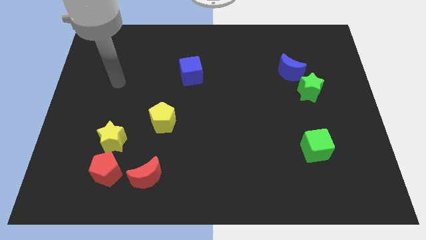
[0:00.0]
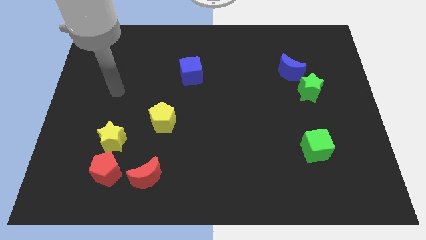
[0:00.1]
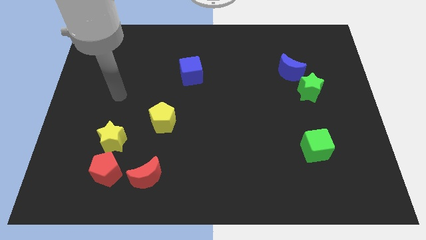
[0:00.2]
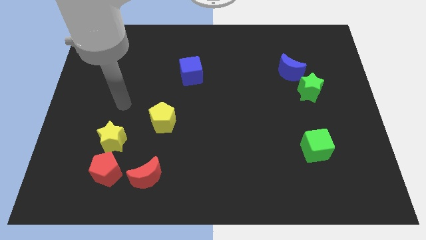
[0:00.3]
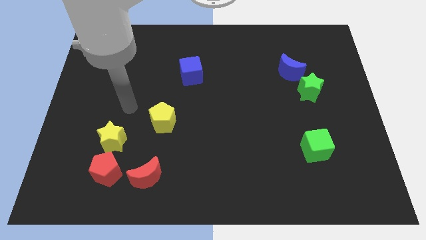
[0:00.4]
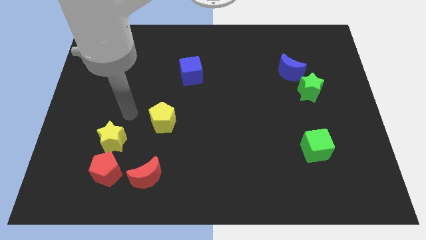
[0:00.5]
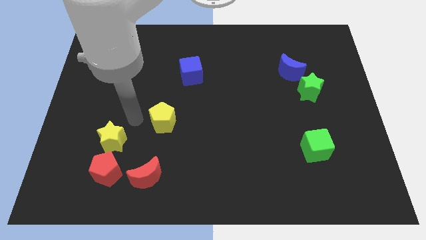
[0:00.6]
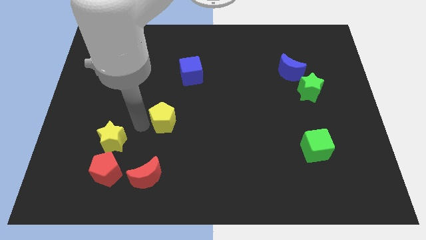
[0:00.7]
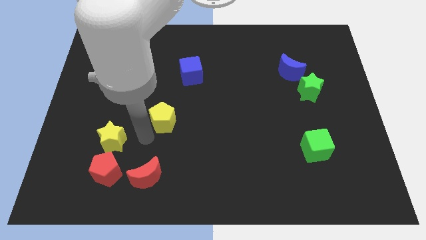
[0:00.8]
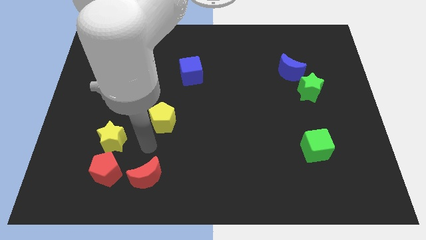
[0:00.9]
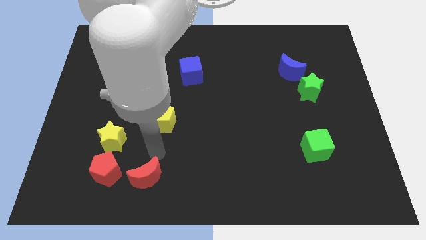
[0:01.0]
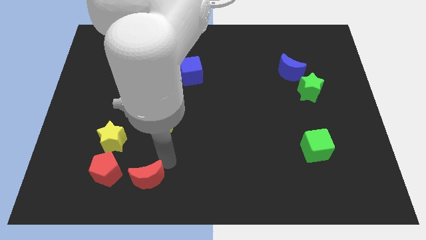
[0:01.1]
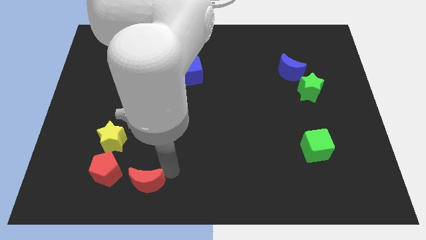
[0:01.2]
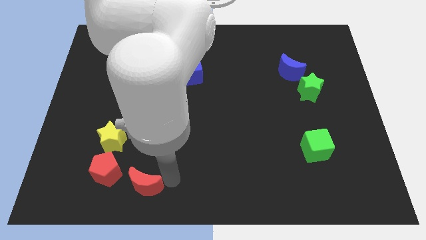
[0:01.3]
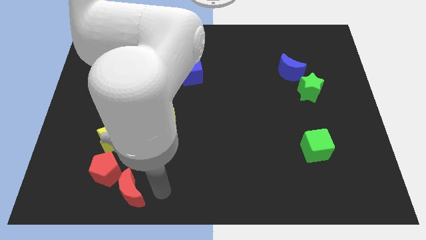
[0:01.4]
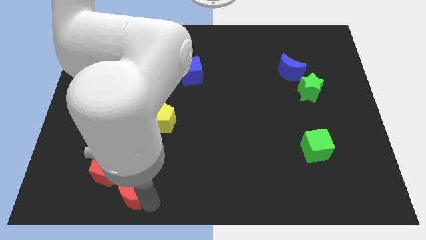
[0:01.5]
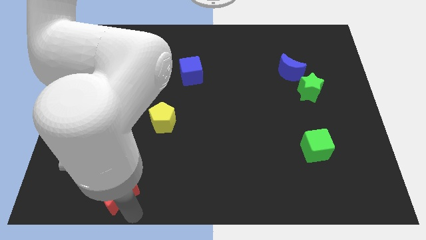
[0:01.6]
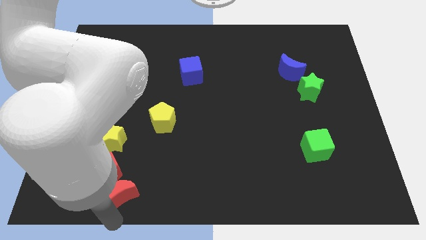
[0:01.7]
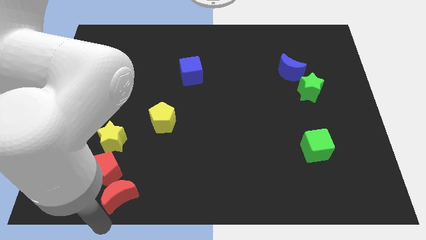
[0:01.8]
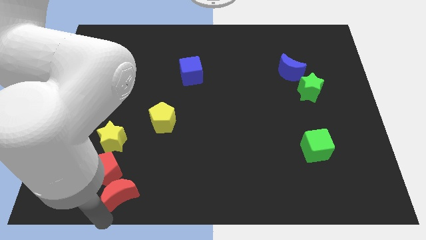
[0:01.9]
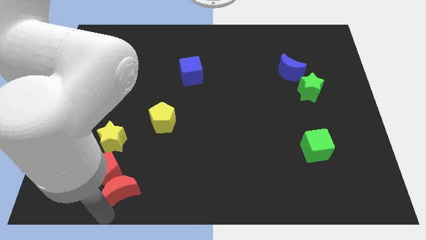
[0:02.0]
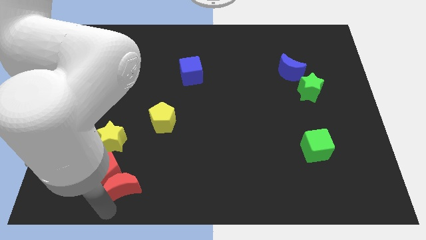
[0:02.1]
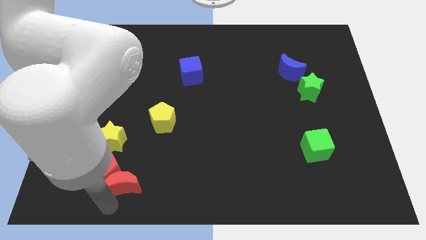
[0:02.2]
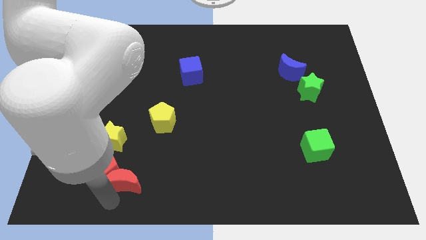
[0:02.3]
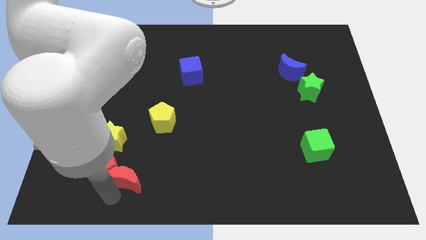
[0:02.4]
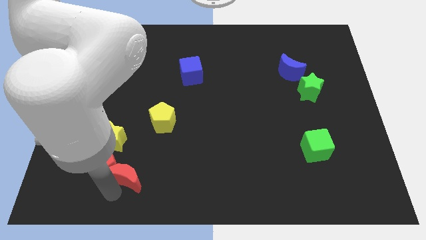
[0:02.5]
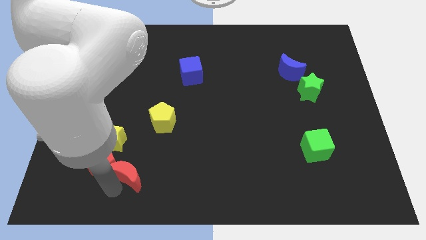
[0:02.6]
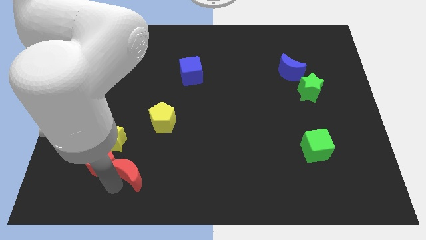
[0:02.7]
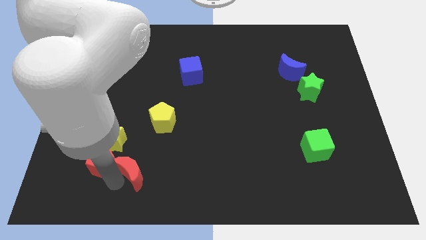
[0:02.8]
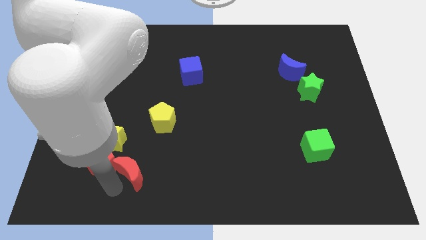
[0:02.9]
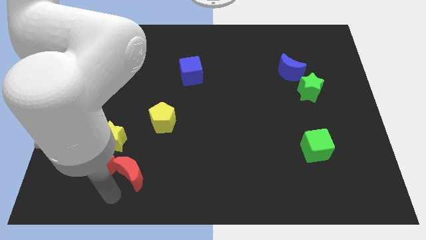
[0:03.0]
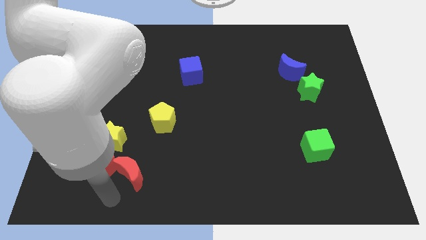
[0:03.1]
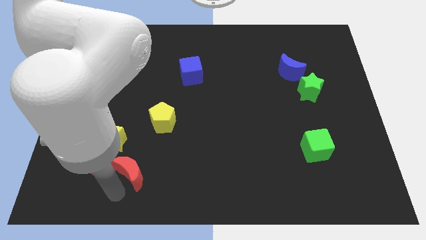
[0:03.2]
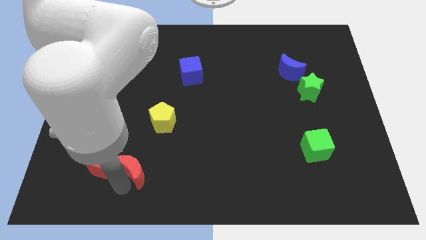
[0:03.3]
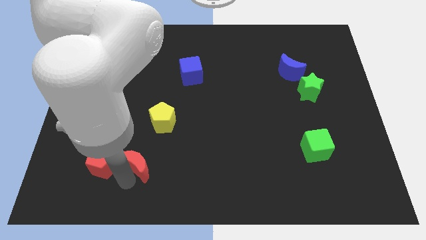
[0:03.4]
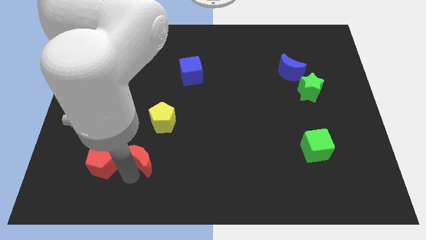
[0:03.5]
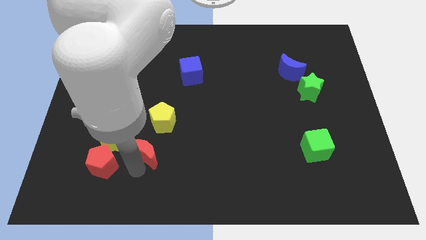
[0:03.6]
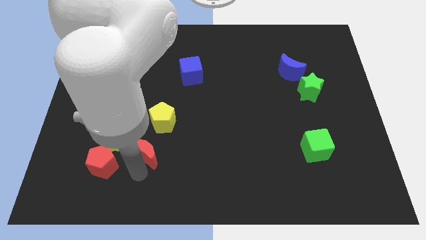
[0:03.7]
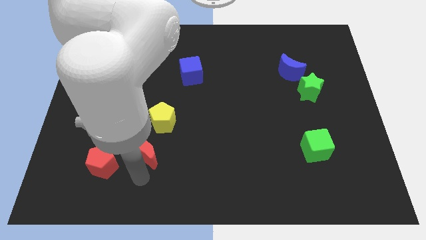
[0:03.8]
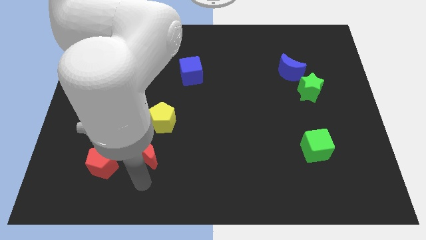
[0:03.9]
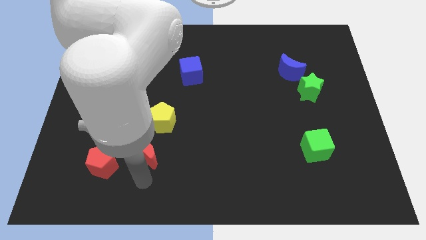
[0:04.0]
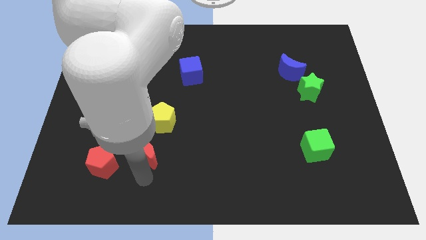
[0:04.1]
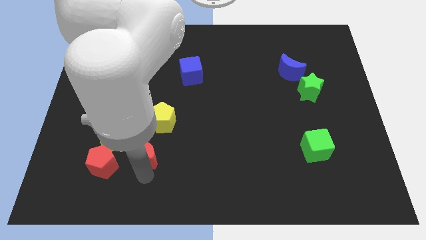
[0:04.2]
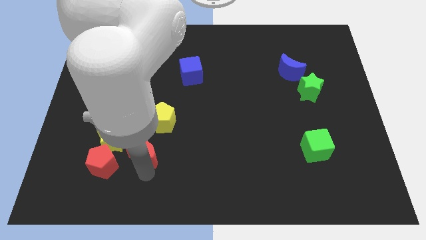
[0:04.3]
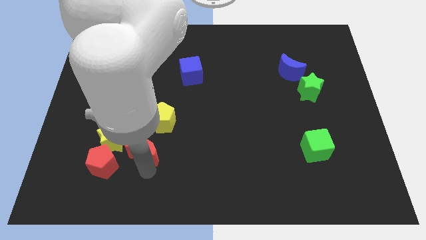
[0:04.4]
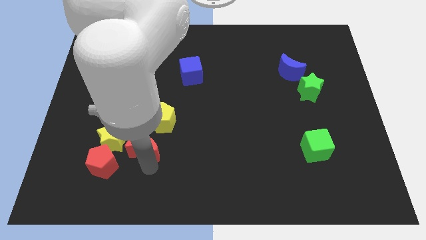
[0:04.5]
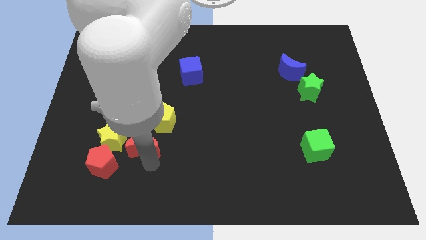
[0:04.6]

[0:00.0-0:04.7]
slightly push the red moon up

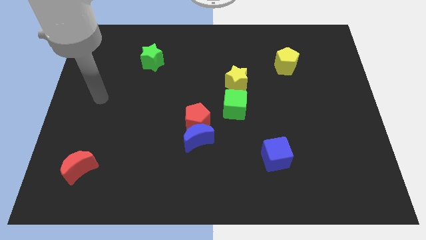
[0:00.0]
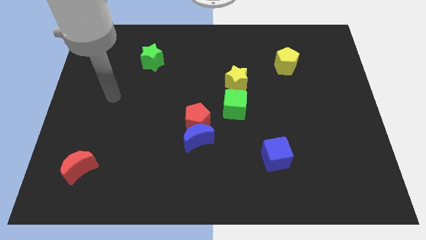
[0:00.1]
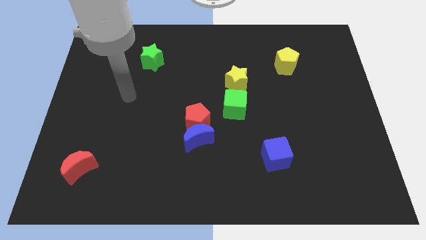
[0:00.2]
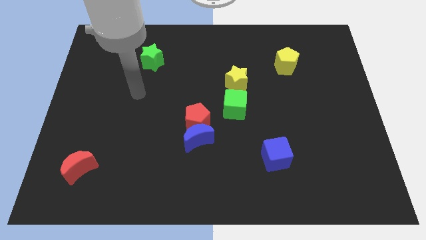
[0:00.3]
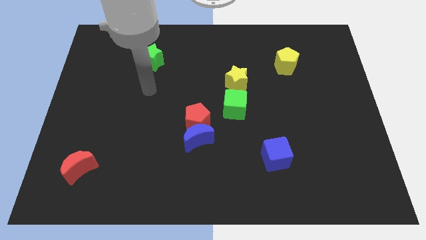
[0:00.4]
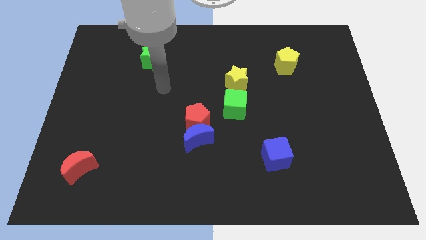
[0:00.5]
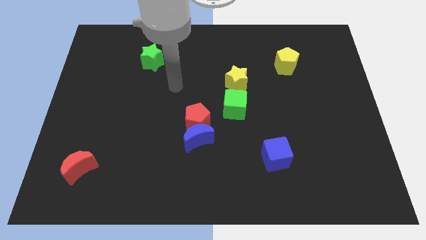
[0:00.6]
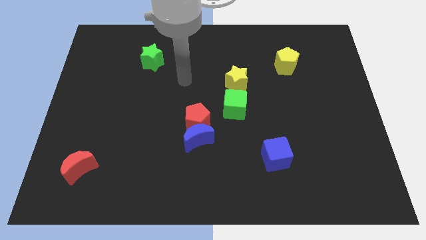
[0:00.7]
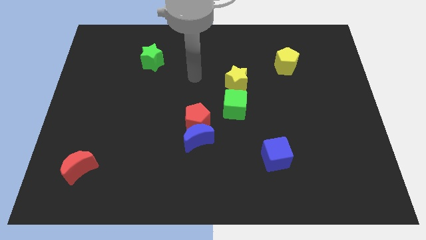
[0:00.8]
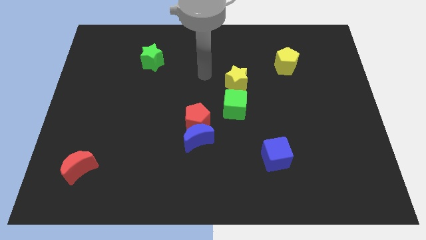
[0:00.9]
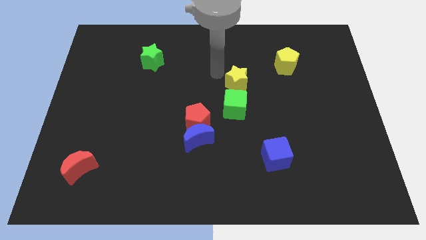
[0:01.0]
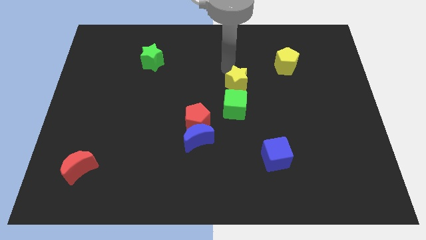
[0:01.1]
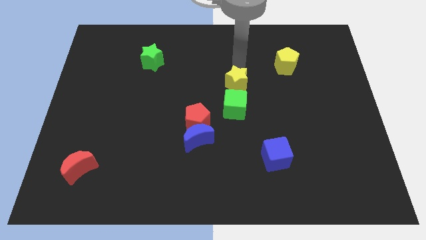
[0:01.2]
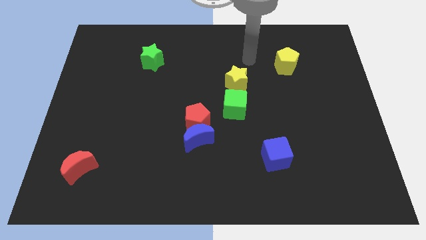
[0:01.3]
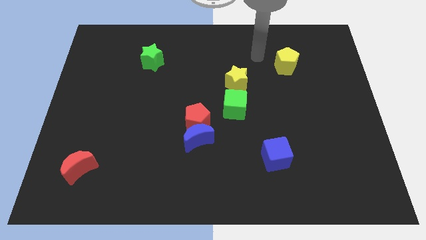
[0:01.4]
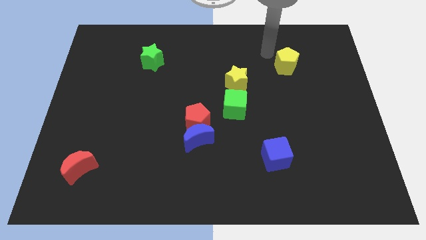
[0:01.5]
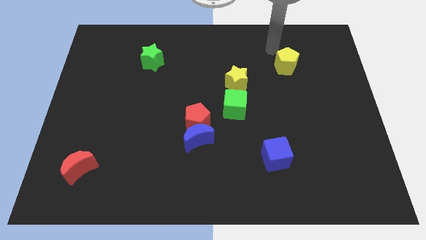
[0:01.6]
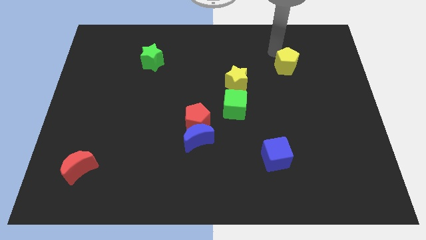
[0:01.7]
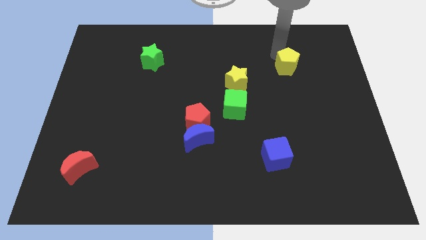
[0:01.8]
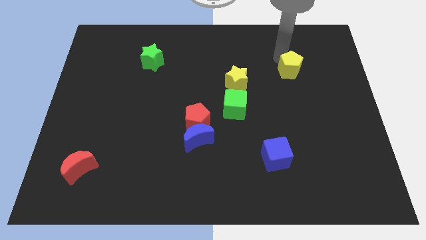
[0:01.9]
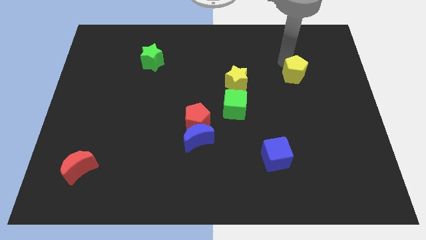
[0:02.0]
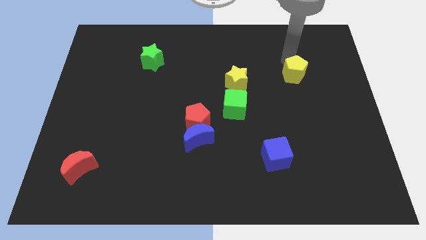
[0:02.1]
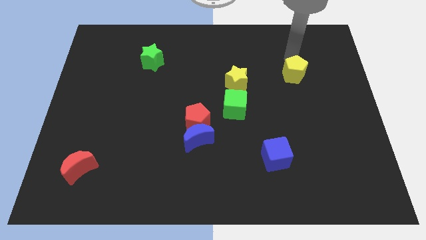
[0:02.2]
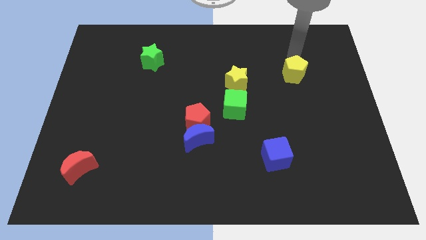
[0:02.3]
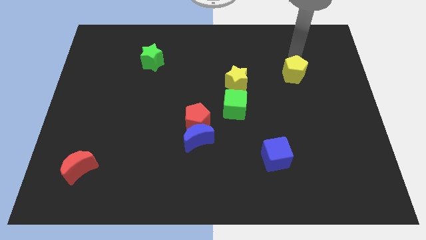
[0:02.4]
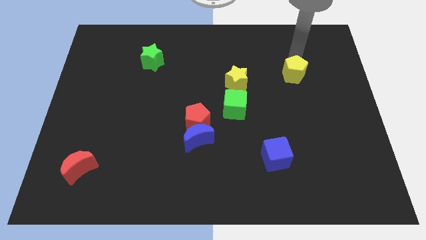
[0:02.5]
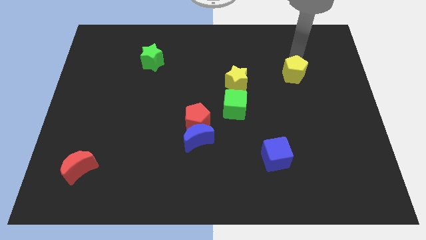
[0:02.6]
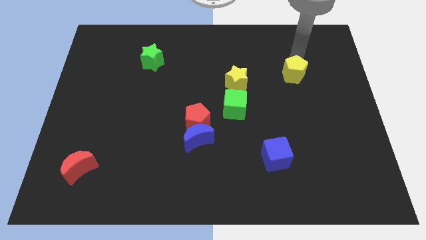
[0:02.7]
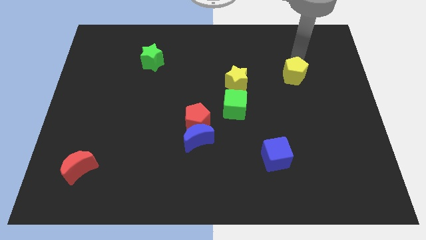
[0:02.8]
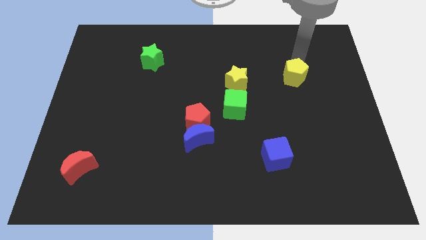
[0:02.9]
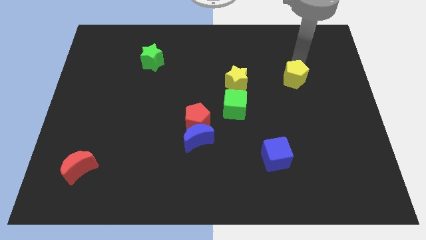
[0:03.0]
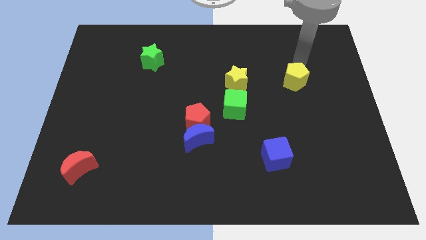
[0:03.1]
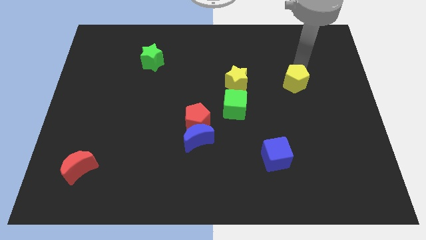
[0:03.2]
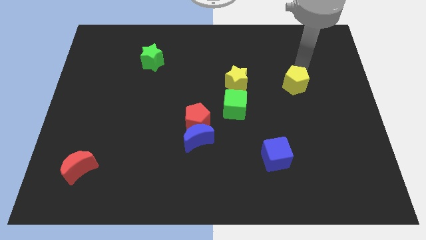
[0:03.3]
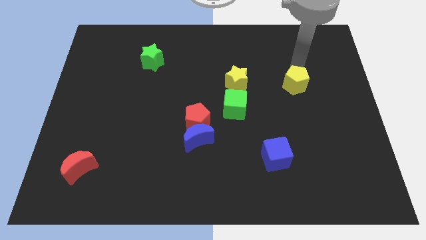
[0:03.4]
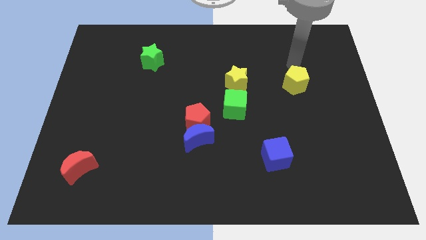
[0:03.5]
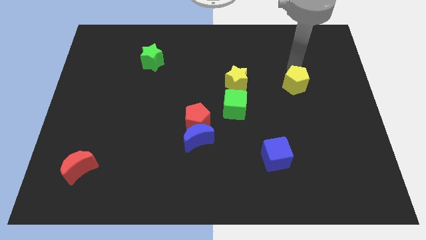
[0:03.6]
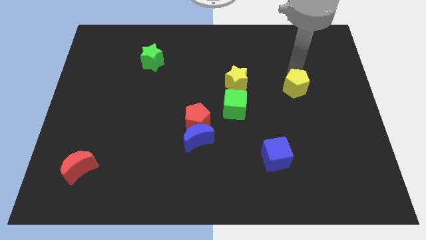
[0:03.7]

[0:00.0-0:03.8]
slightly move the yellow pentagon downwards
